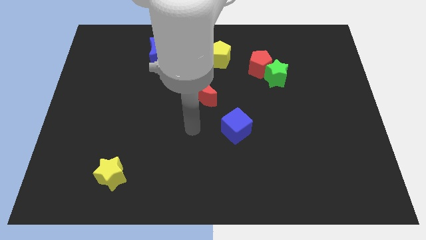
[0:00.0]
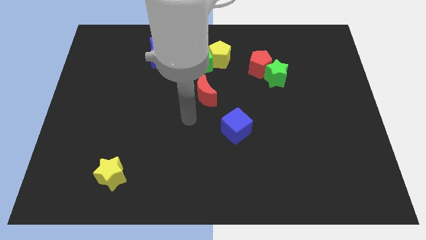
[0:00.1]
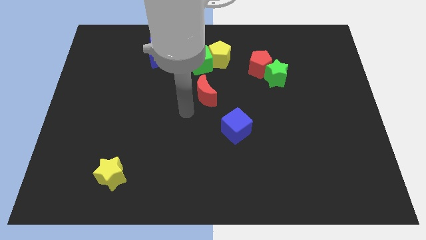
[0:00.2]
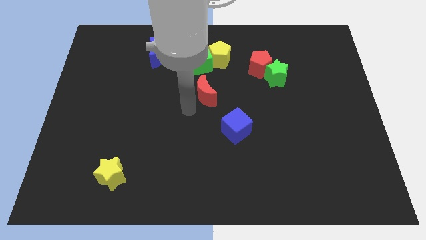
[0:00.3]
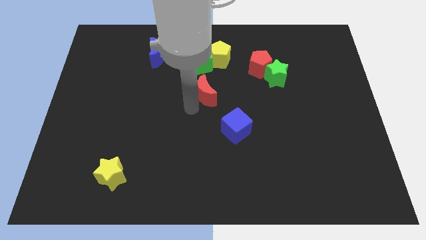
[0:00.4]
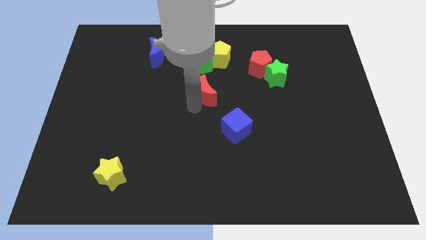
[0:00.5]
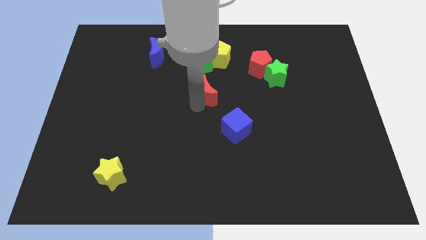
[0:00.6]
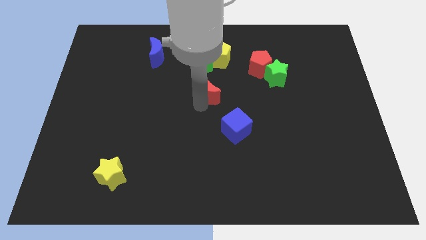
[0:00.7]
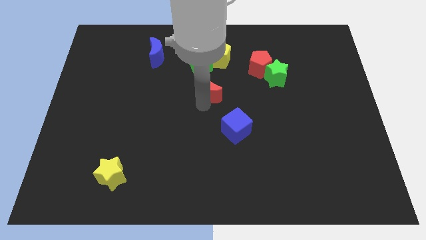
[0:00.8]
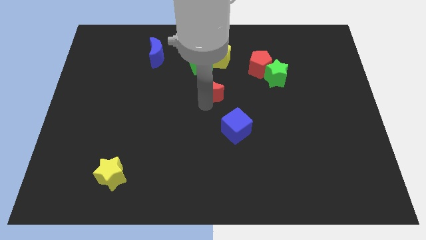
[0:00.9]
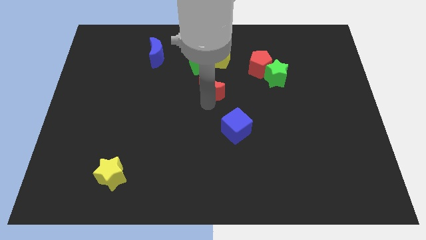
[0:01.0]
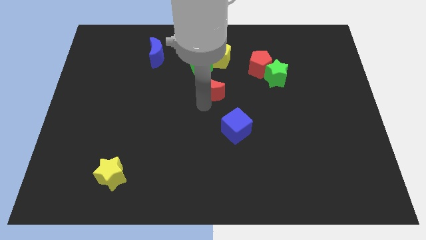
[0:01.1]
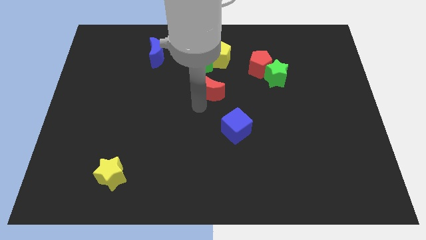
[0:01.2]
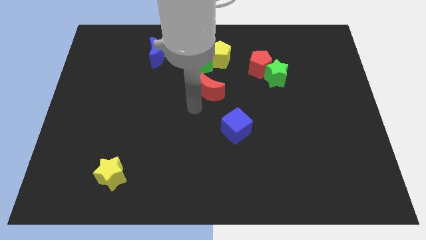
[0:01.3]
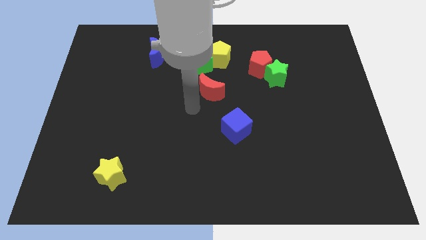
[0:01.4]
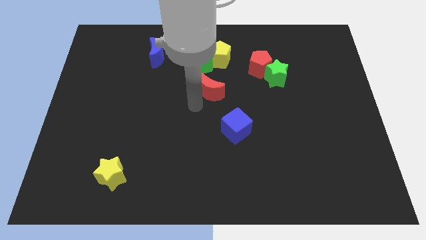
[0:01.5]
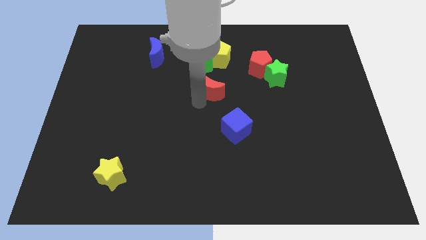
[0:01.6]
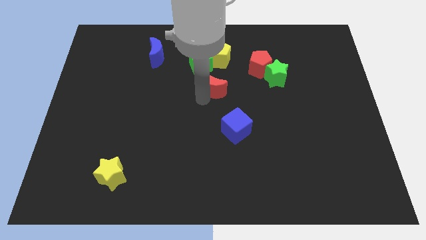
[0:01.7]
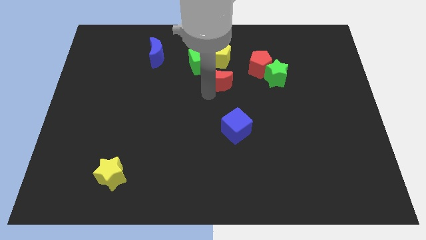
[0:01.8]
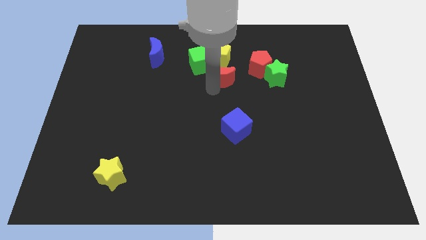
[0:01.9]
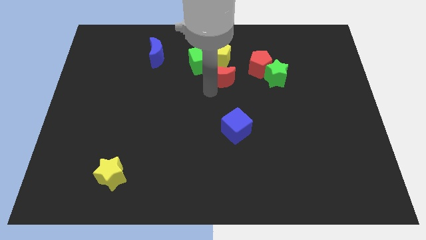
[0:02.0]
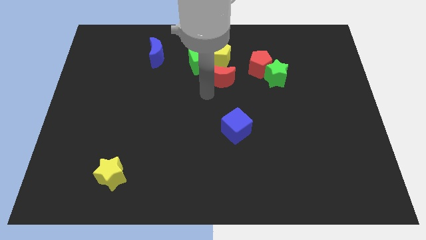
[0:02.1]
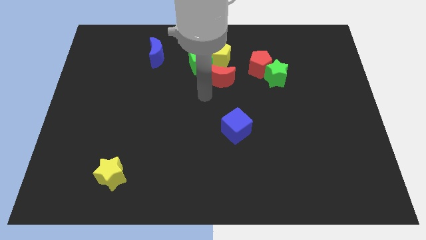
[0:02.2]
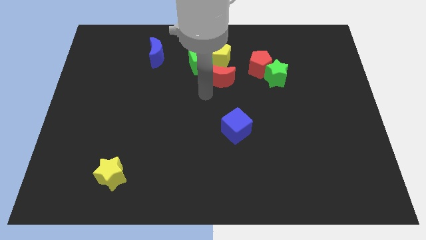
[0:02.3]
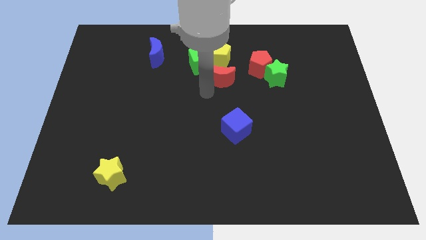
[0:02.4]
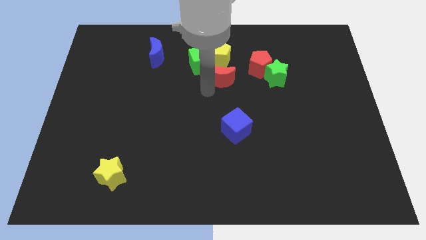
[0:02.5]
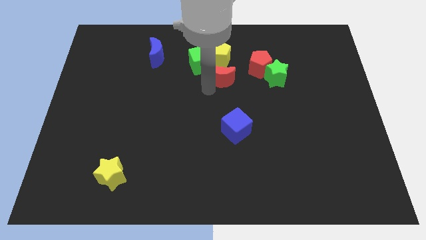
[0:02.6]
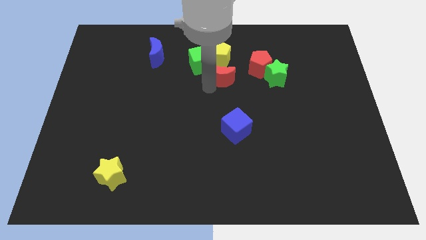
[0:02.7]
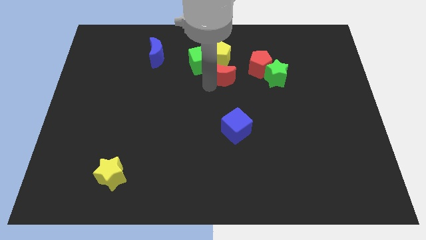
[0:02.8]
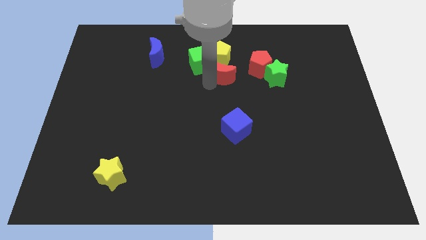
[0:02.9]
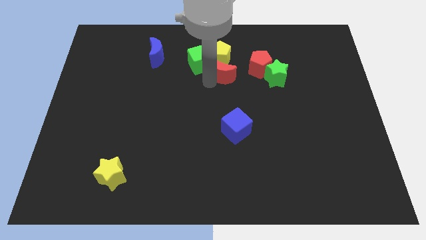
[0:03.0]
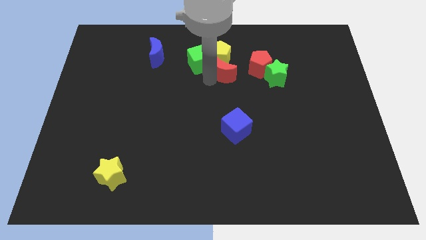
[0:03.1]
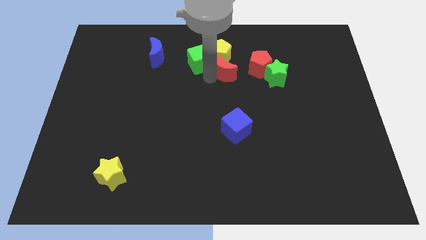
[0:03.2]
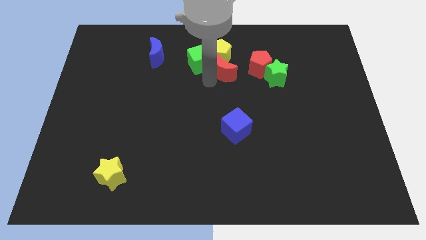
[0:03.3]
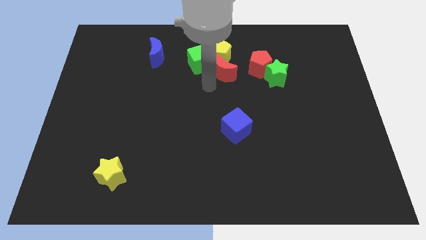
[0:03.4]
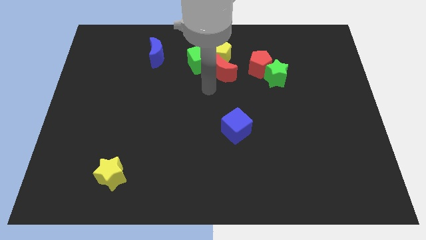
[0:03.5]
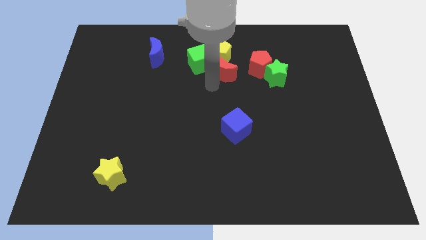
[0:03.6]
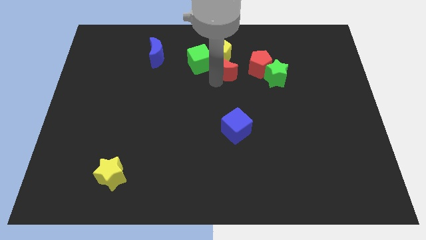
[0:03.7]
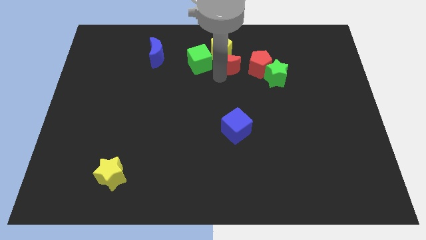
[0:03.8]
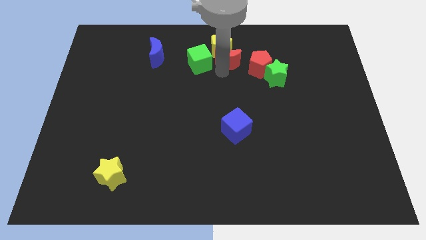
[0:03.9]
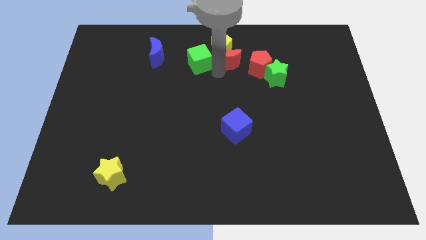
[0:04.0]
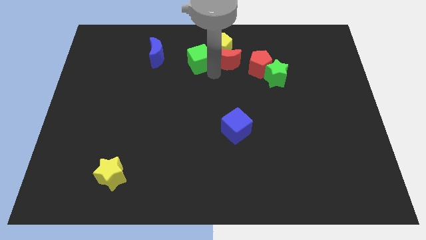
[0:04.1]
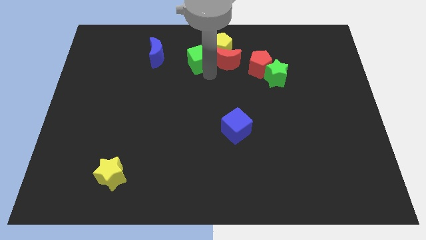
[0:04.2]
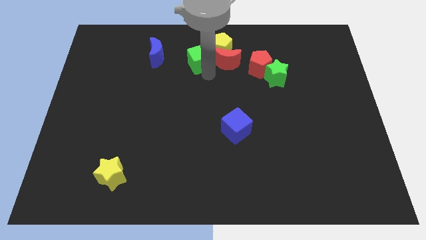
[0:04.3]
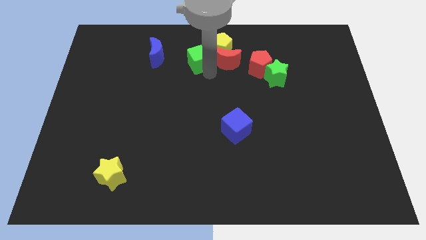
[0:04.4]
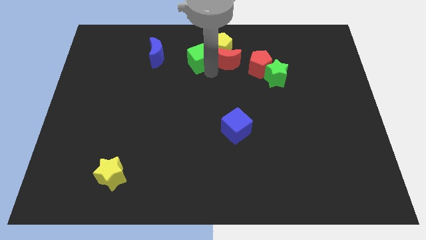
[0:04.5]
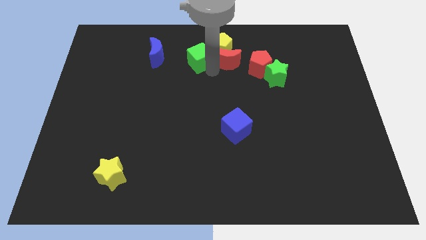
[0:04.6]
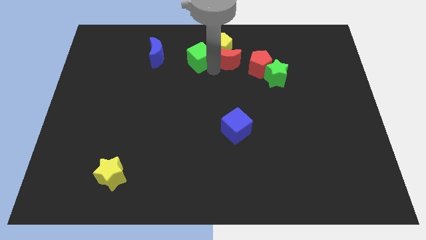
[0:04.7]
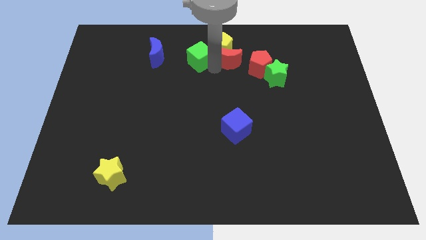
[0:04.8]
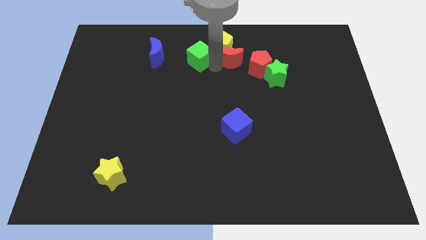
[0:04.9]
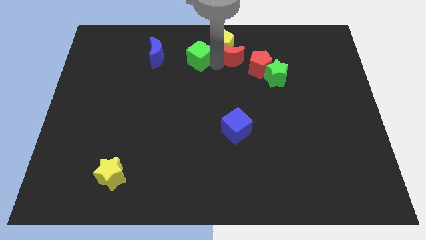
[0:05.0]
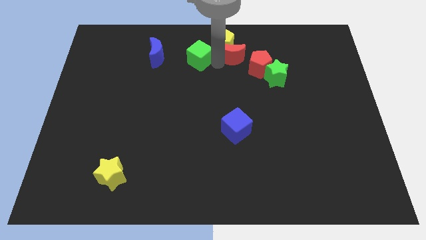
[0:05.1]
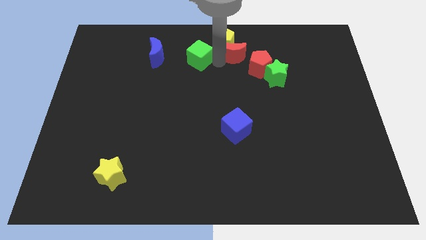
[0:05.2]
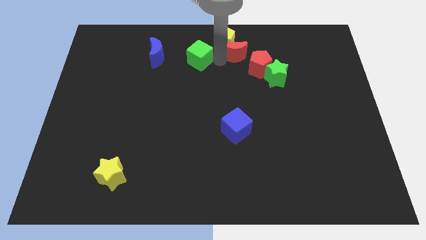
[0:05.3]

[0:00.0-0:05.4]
move the red moon to the top side
